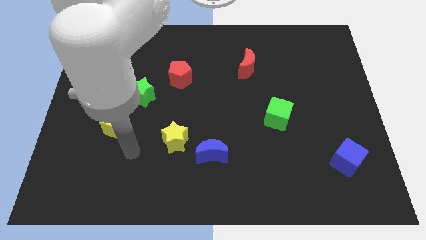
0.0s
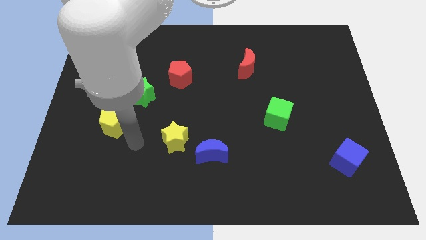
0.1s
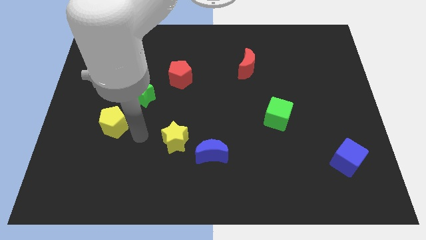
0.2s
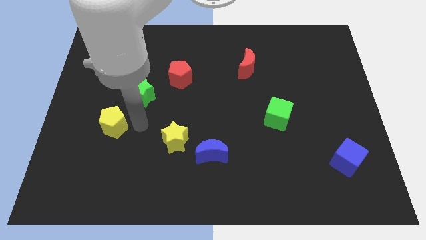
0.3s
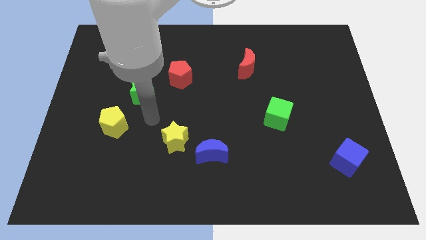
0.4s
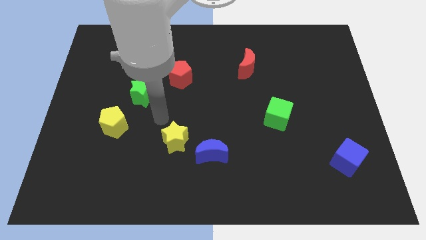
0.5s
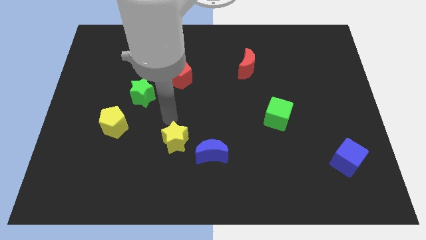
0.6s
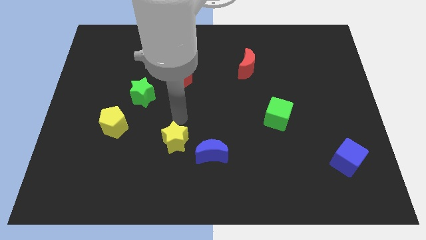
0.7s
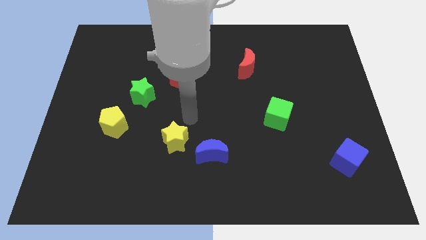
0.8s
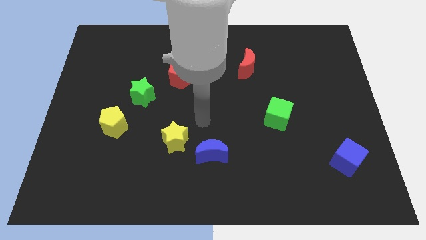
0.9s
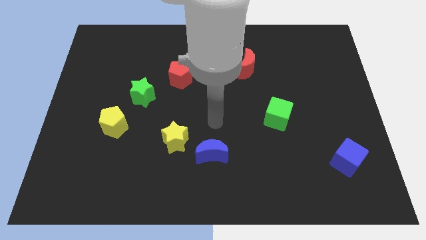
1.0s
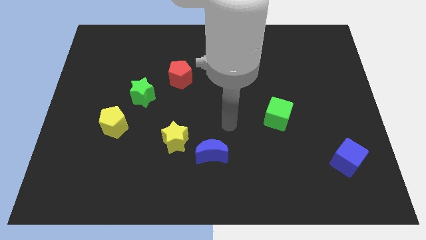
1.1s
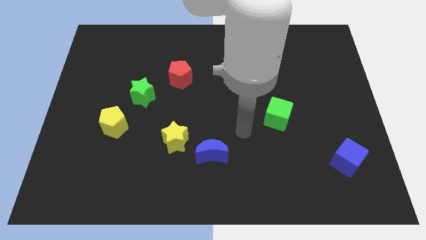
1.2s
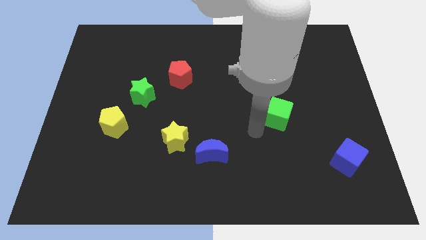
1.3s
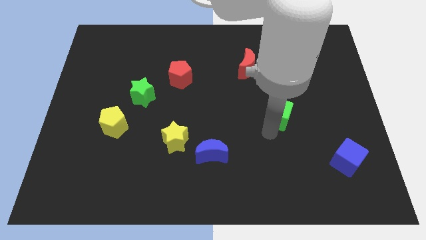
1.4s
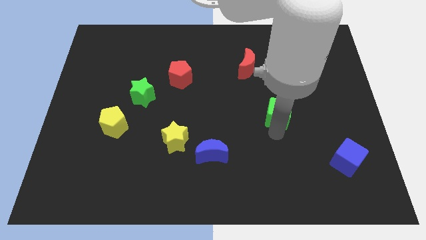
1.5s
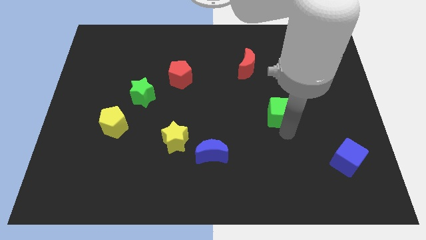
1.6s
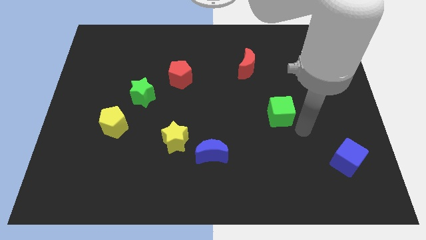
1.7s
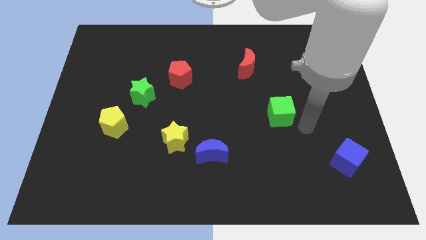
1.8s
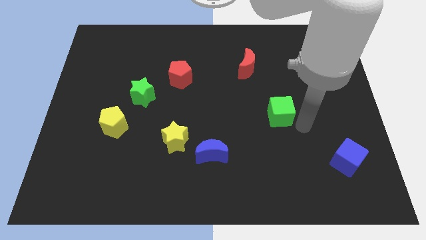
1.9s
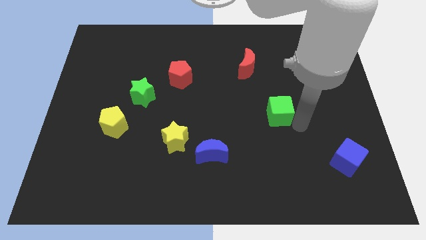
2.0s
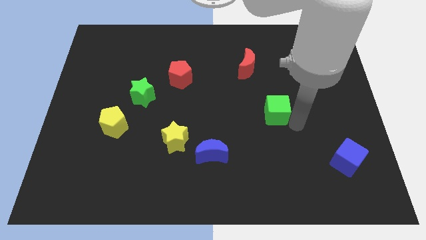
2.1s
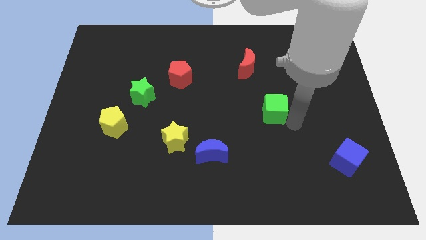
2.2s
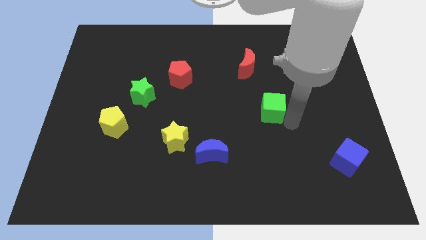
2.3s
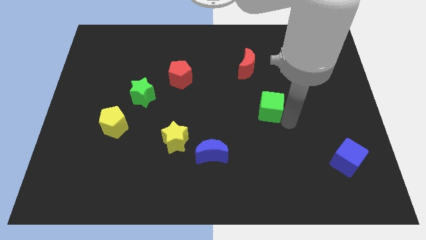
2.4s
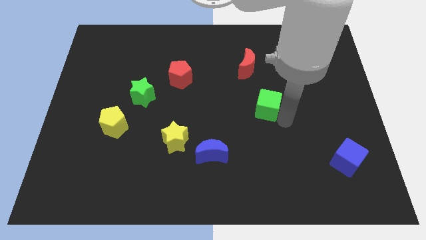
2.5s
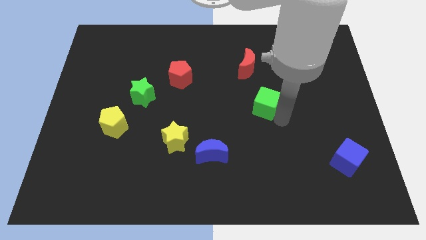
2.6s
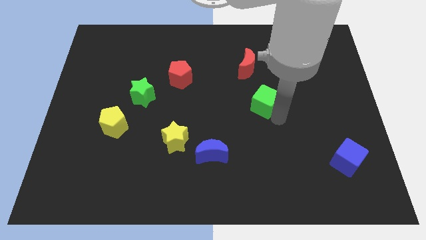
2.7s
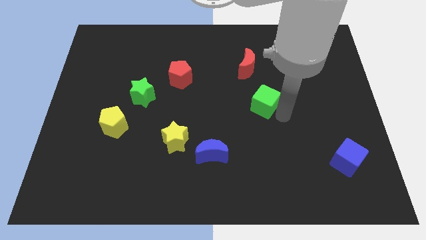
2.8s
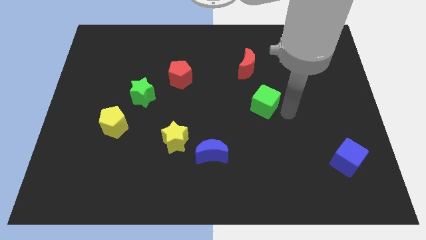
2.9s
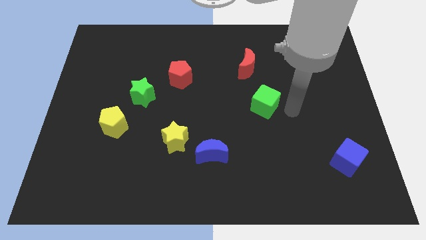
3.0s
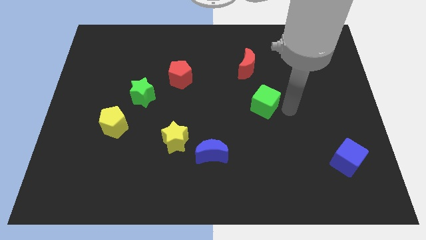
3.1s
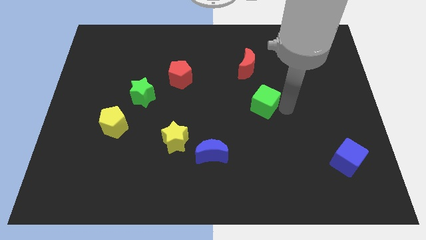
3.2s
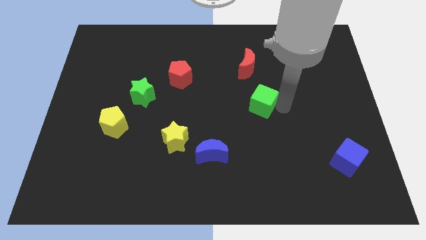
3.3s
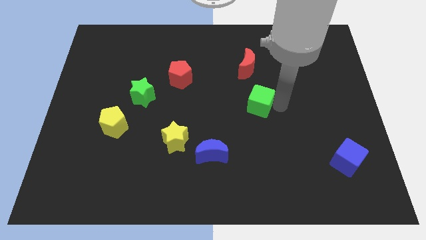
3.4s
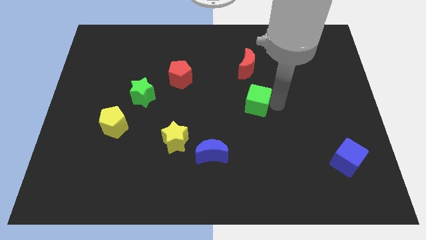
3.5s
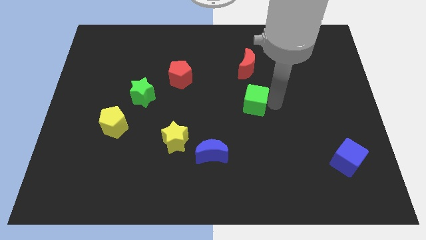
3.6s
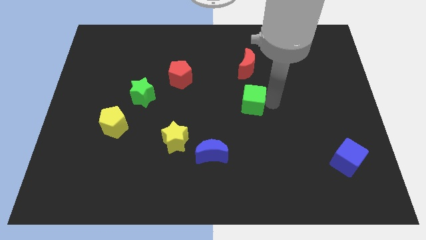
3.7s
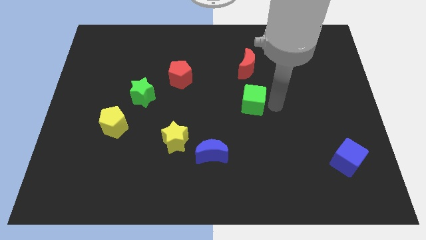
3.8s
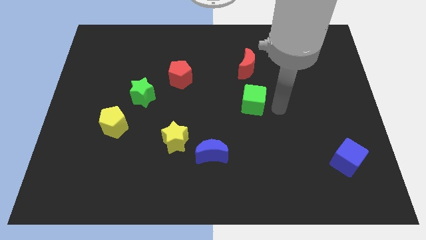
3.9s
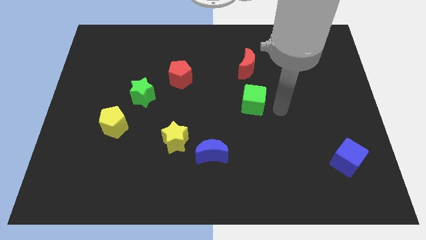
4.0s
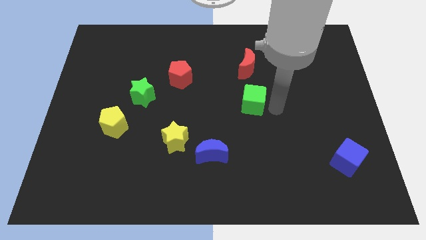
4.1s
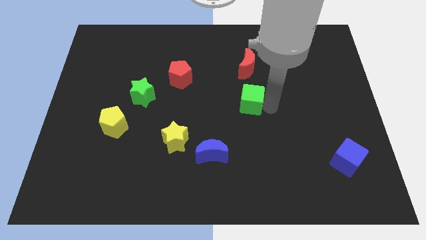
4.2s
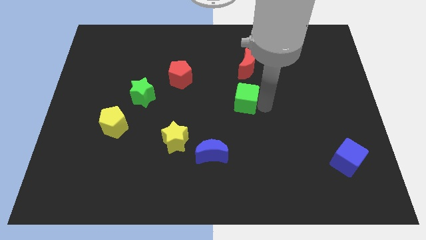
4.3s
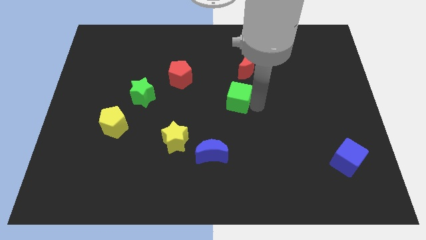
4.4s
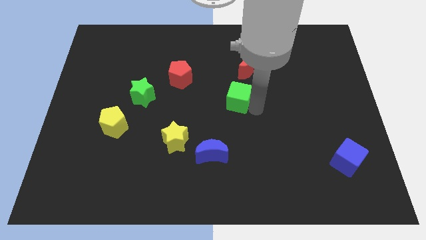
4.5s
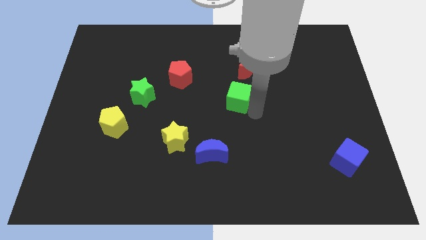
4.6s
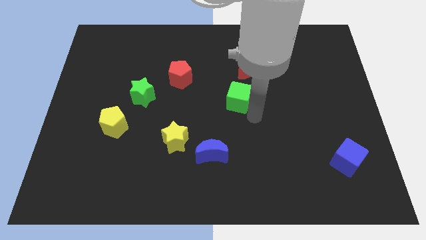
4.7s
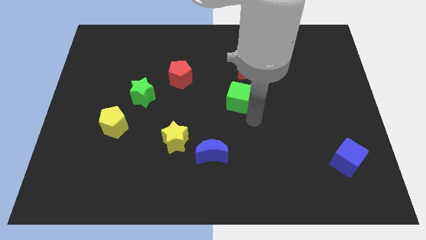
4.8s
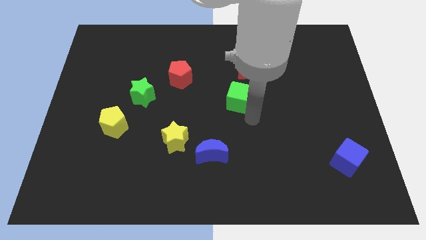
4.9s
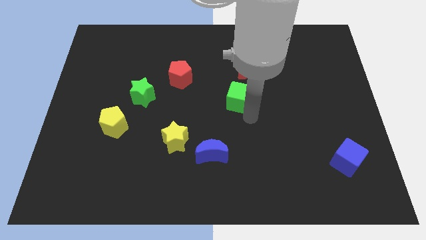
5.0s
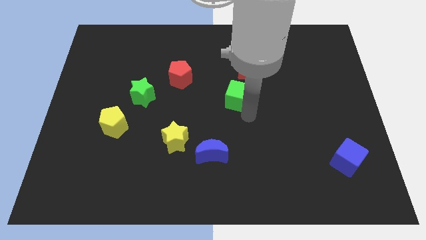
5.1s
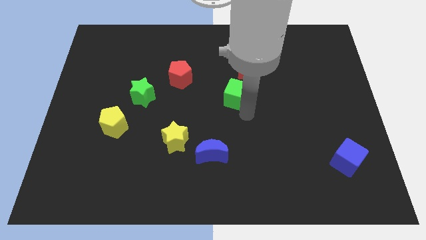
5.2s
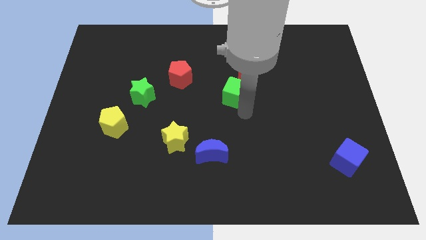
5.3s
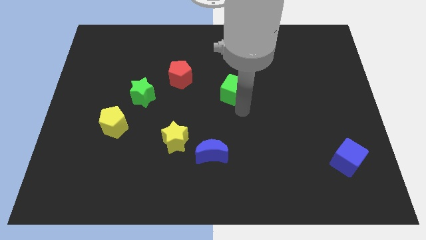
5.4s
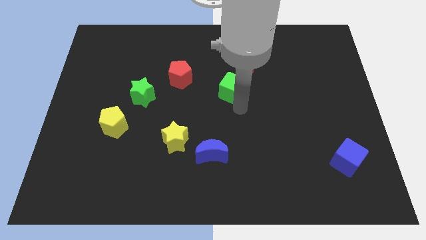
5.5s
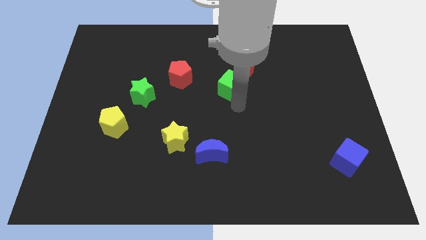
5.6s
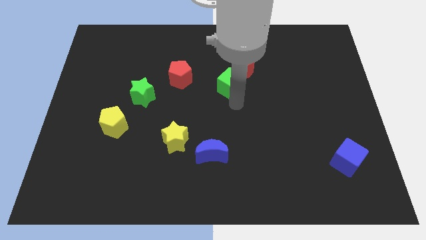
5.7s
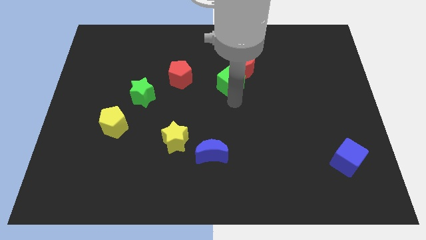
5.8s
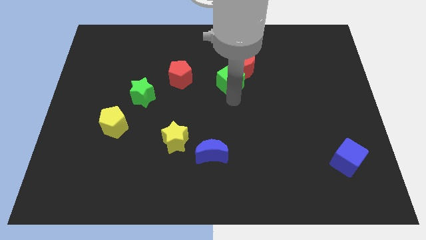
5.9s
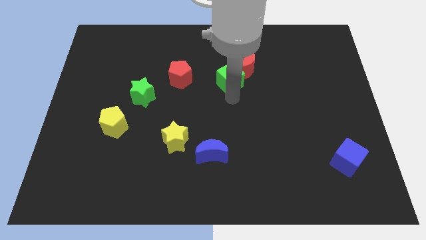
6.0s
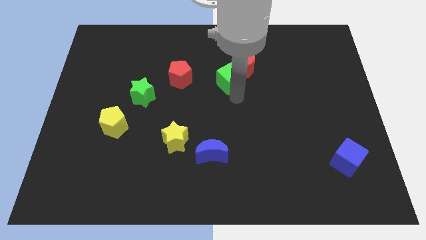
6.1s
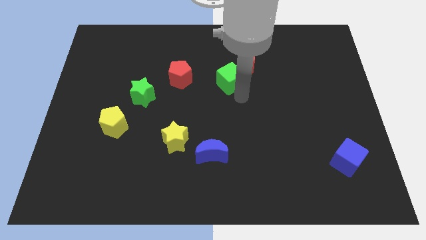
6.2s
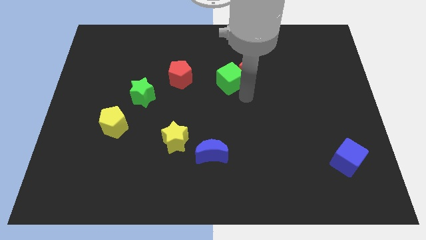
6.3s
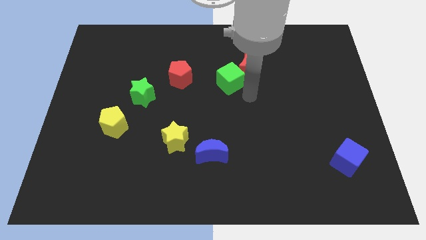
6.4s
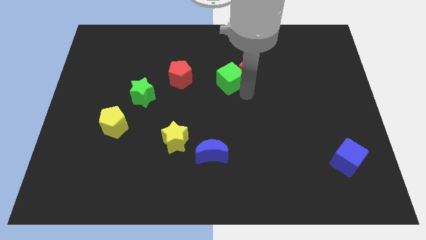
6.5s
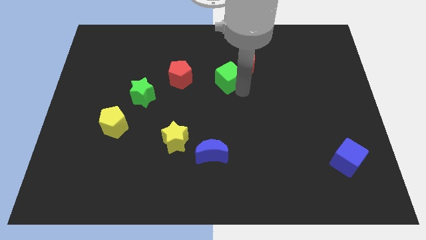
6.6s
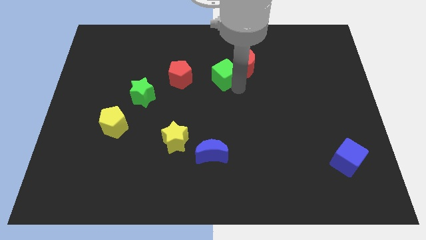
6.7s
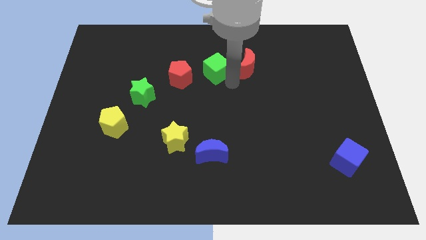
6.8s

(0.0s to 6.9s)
put the green cube to the top right of the red pentagon

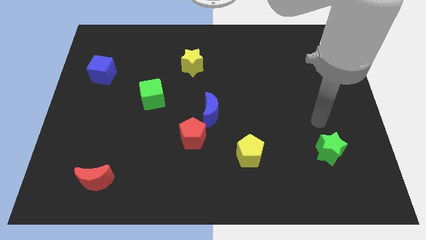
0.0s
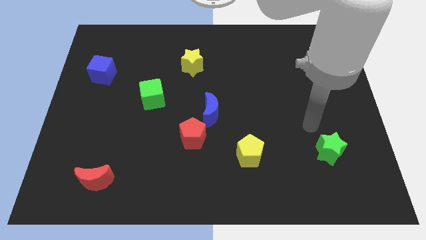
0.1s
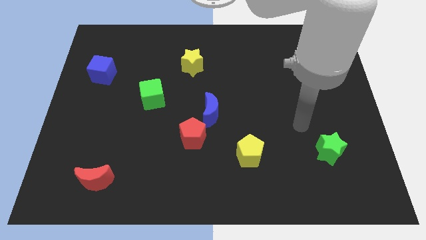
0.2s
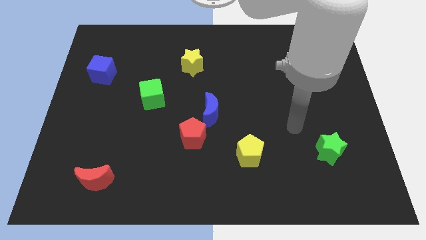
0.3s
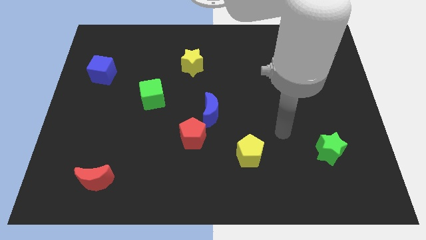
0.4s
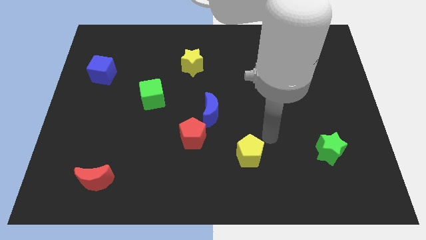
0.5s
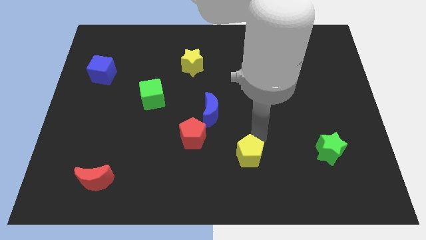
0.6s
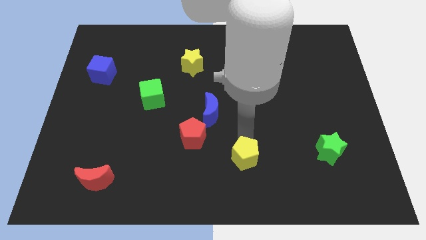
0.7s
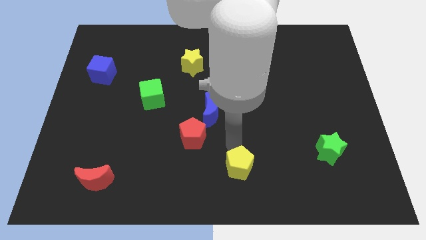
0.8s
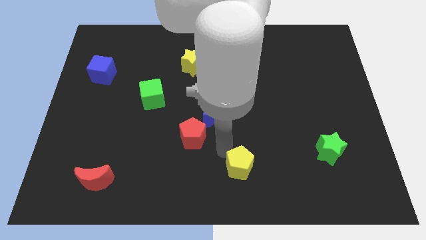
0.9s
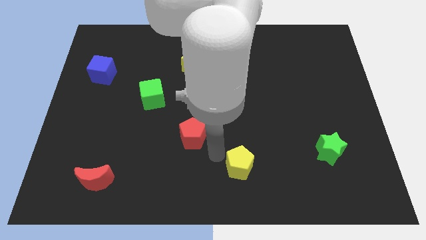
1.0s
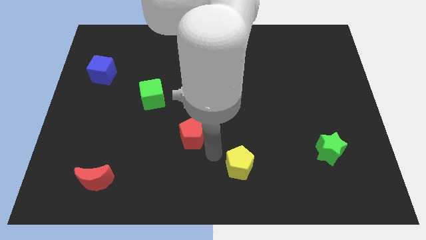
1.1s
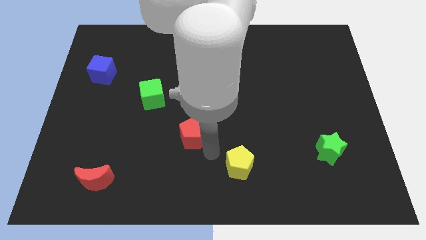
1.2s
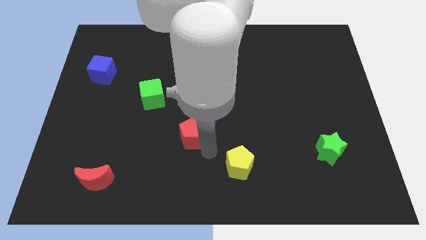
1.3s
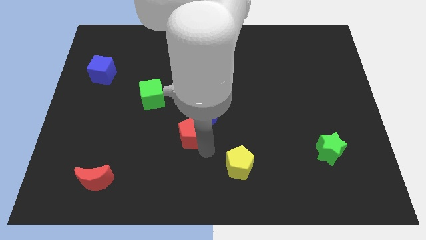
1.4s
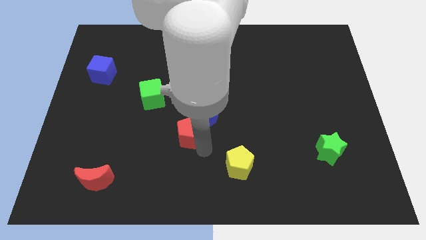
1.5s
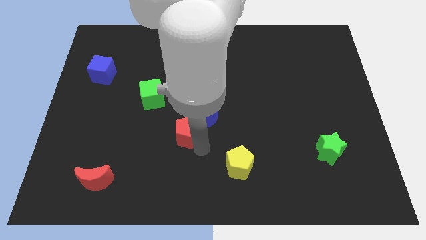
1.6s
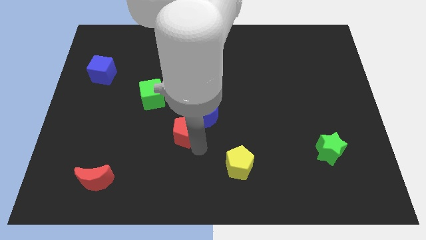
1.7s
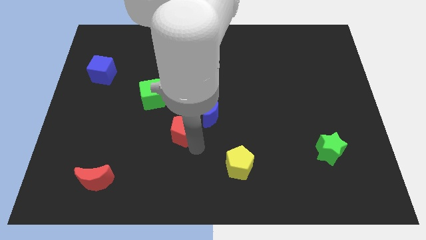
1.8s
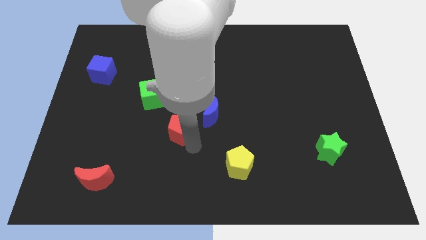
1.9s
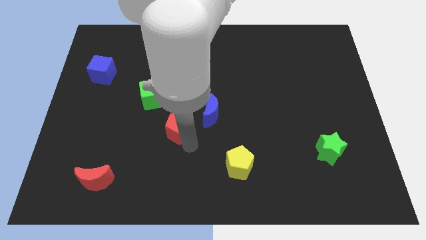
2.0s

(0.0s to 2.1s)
slide the red pentagon left of the blue moon
